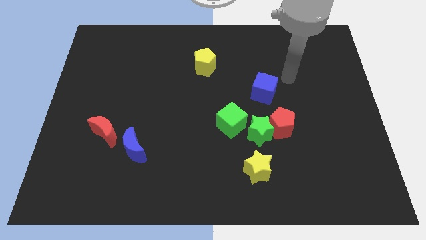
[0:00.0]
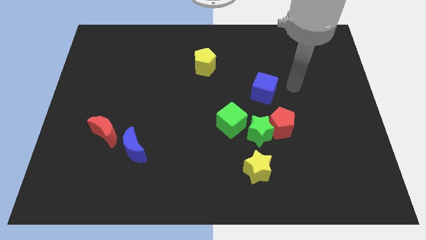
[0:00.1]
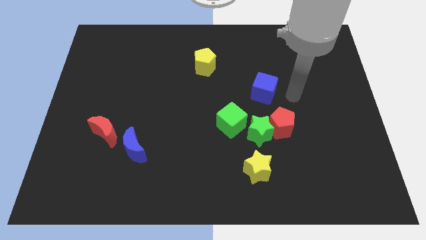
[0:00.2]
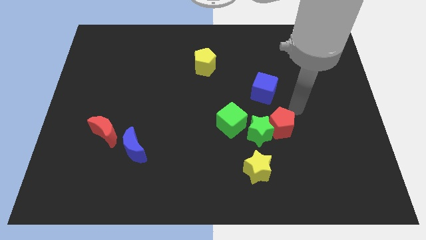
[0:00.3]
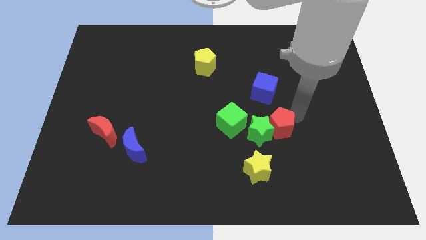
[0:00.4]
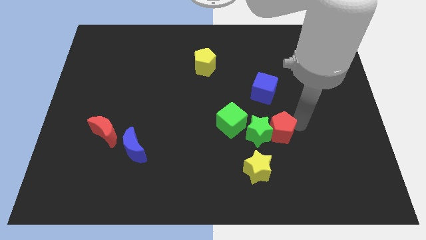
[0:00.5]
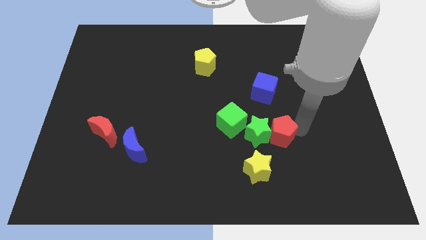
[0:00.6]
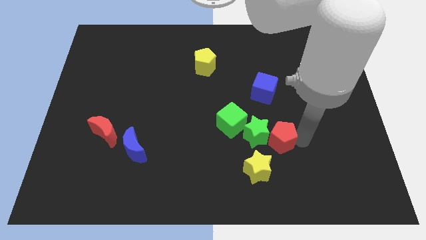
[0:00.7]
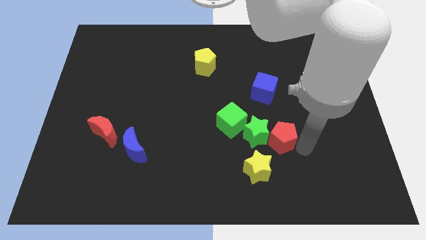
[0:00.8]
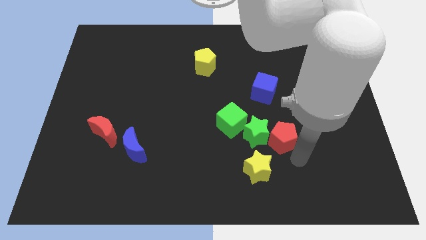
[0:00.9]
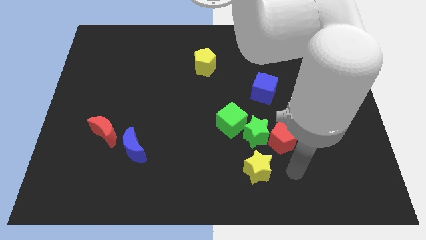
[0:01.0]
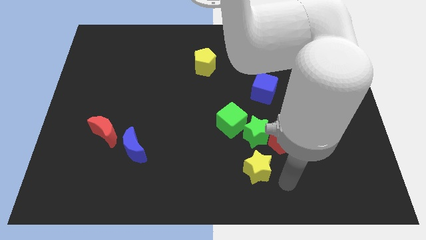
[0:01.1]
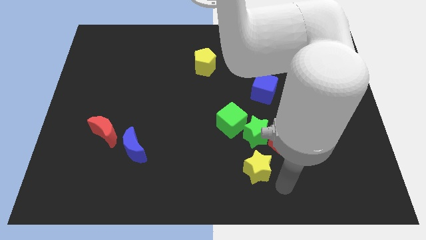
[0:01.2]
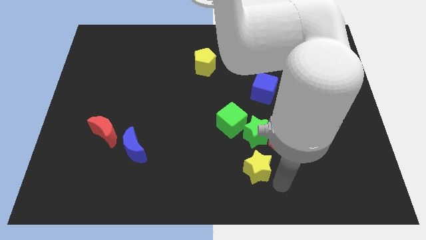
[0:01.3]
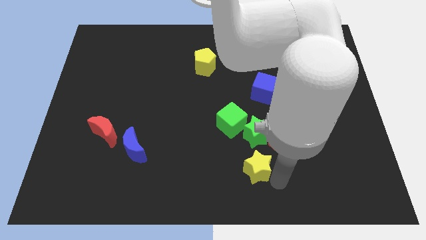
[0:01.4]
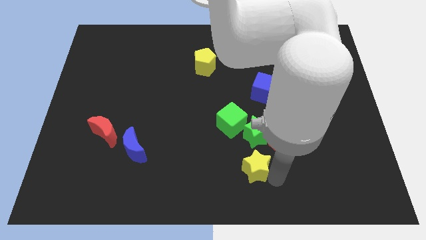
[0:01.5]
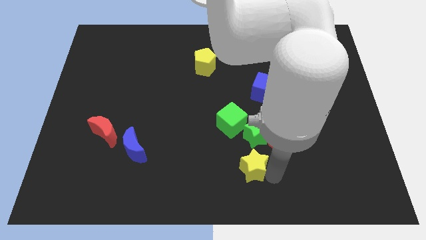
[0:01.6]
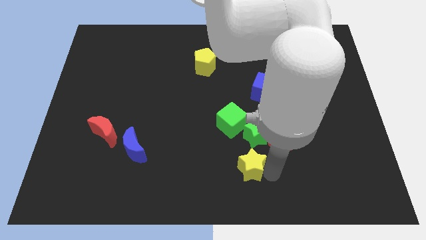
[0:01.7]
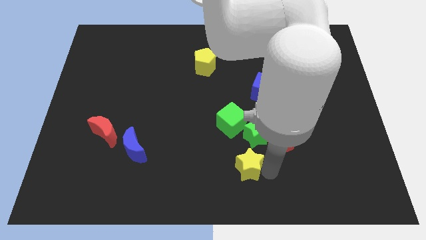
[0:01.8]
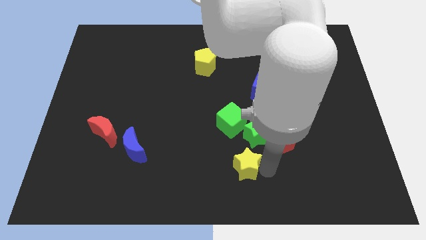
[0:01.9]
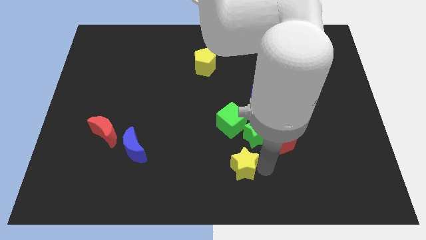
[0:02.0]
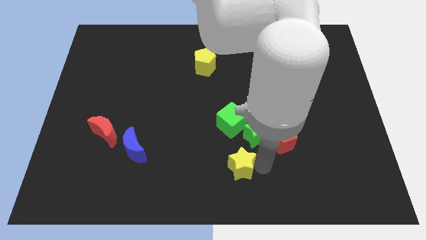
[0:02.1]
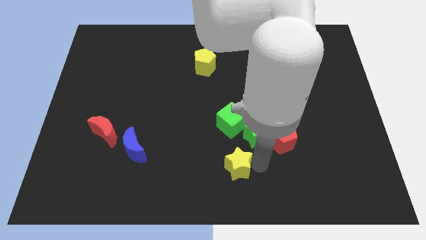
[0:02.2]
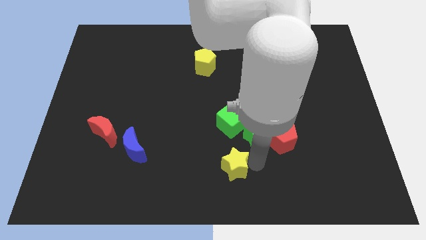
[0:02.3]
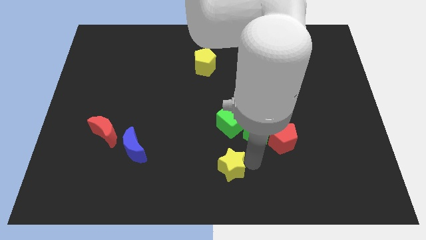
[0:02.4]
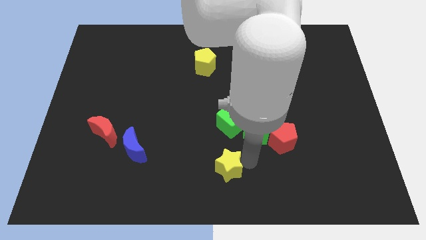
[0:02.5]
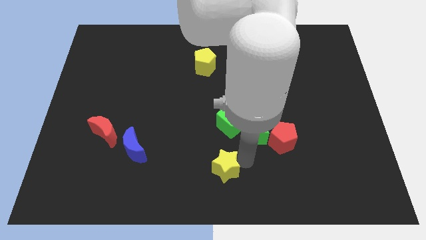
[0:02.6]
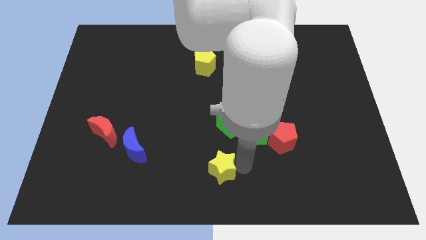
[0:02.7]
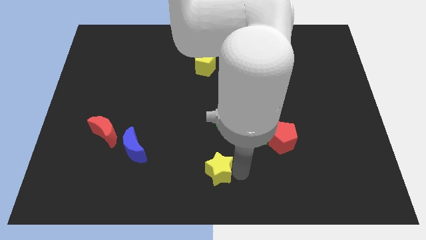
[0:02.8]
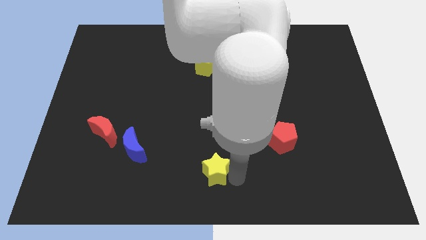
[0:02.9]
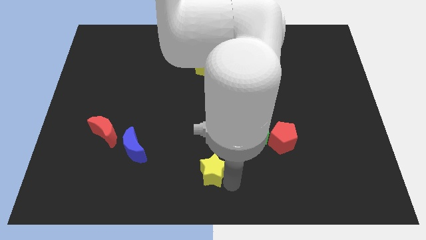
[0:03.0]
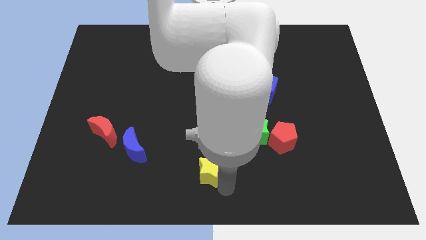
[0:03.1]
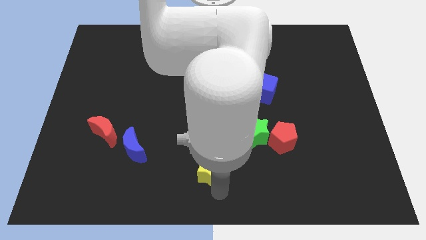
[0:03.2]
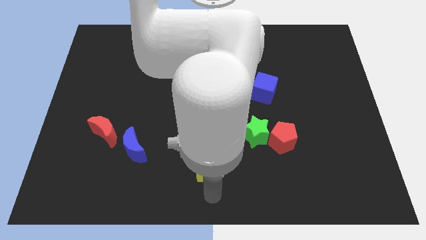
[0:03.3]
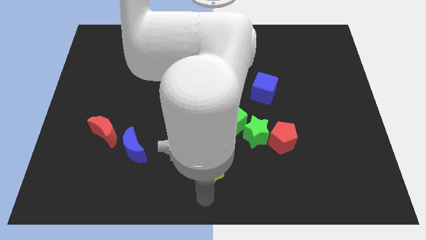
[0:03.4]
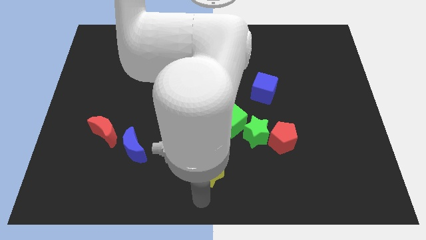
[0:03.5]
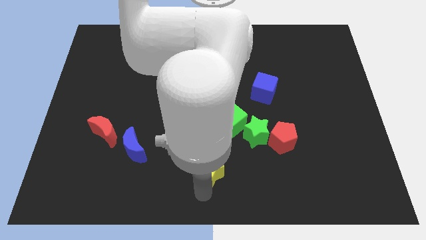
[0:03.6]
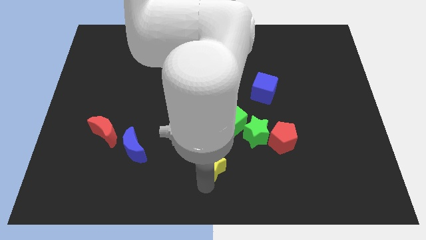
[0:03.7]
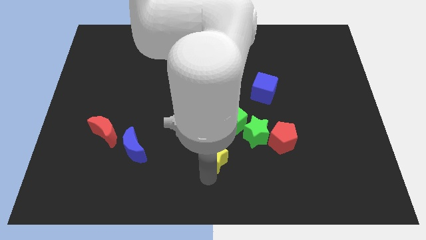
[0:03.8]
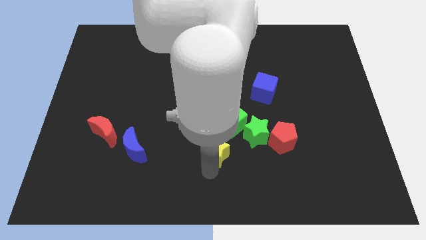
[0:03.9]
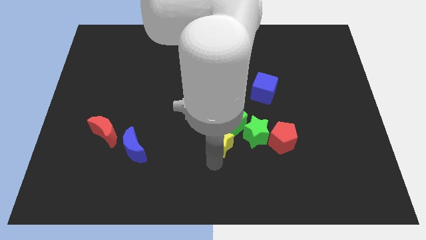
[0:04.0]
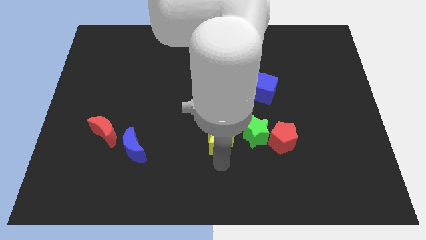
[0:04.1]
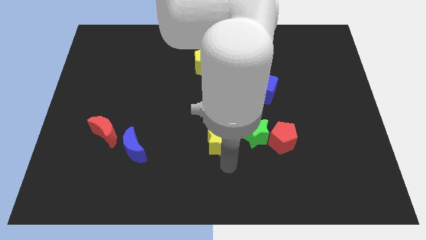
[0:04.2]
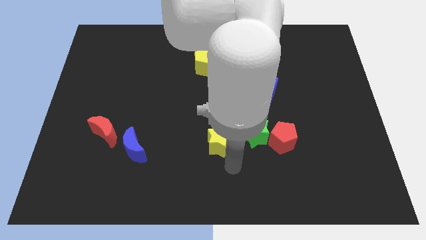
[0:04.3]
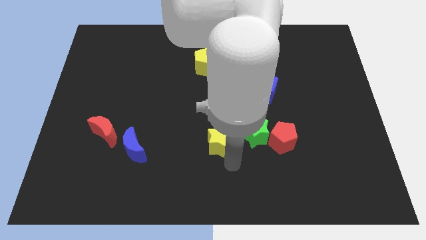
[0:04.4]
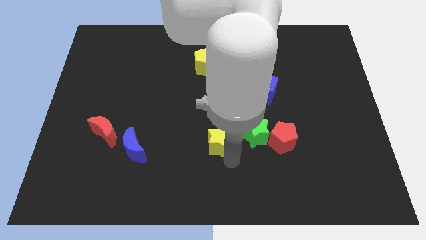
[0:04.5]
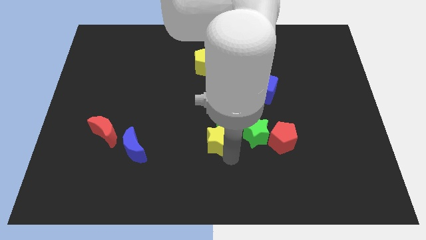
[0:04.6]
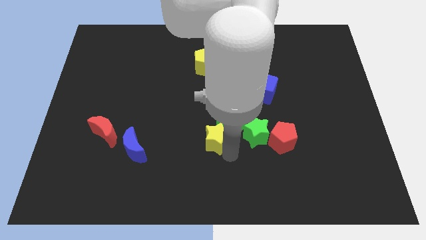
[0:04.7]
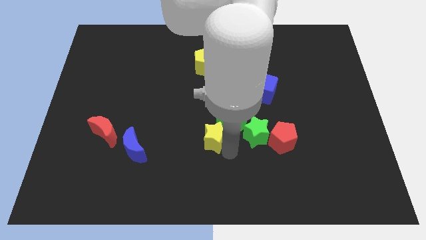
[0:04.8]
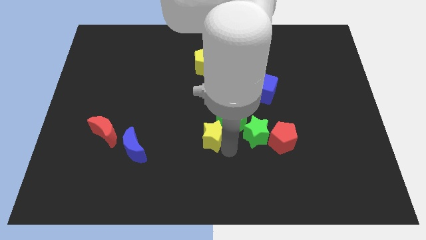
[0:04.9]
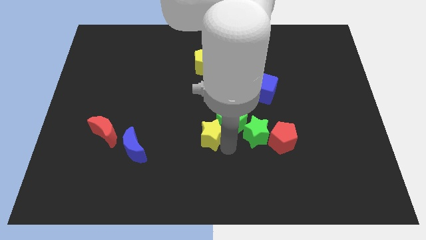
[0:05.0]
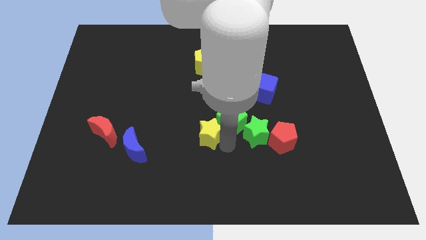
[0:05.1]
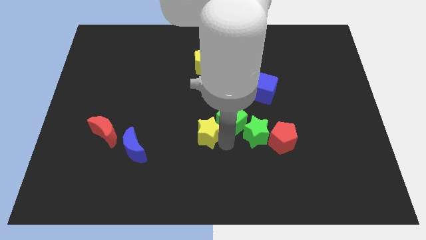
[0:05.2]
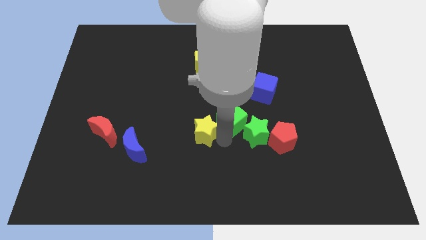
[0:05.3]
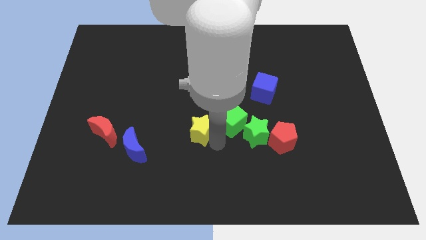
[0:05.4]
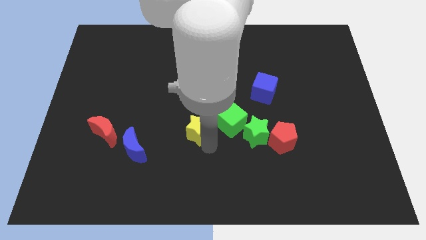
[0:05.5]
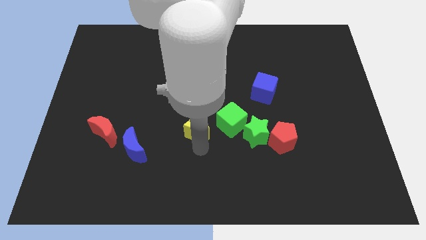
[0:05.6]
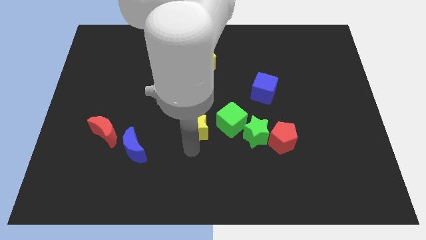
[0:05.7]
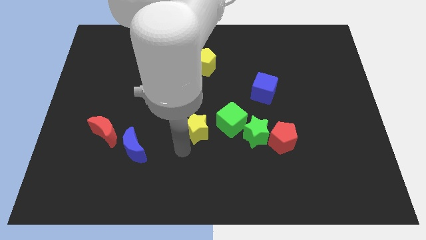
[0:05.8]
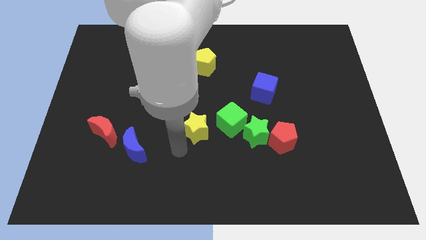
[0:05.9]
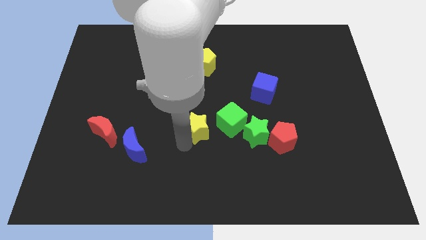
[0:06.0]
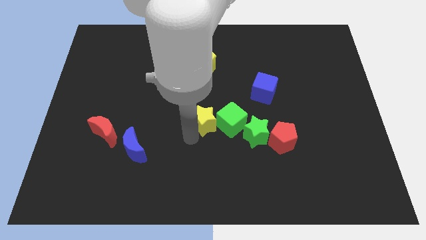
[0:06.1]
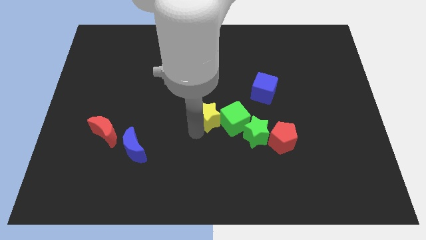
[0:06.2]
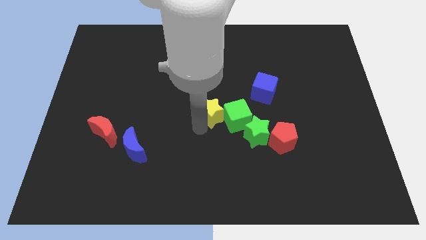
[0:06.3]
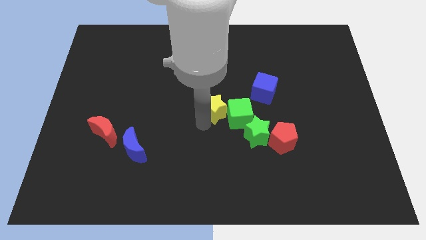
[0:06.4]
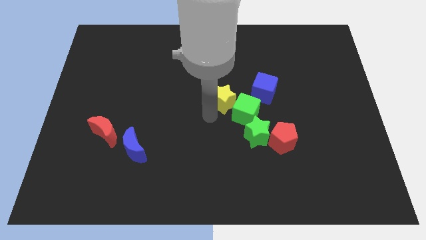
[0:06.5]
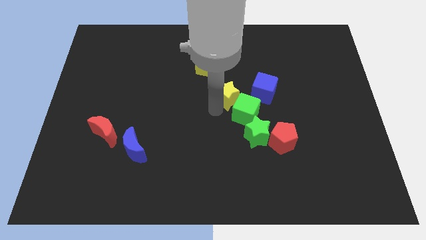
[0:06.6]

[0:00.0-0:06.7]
move the yellow star above the green cube

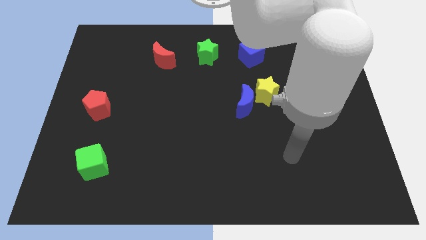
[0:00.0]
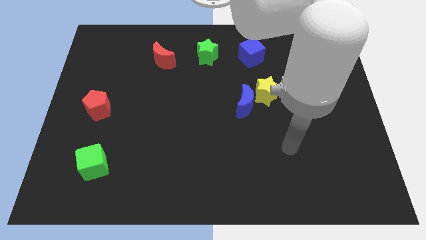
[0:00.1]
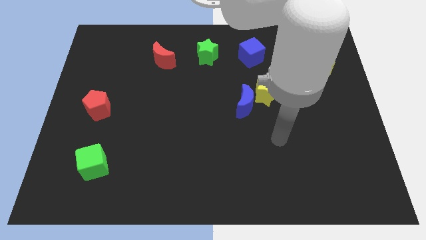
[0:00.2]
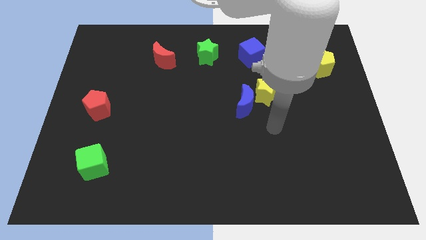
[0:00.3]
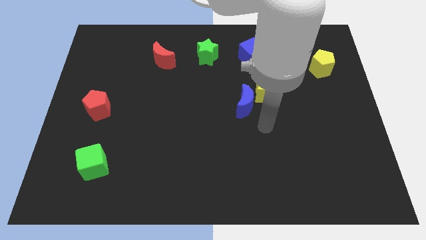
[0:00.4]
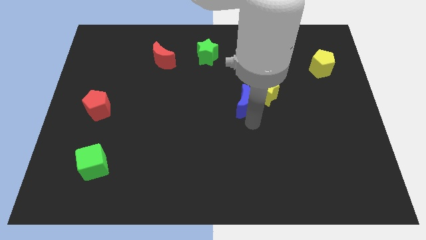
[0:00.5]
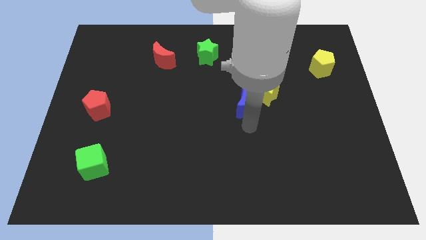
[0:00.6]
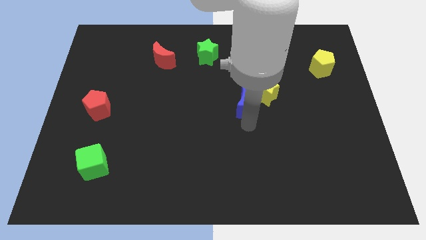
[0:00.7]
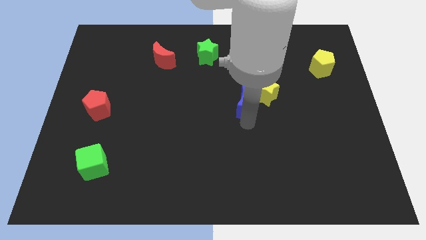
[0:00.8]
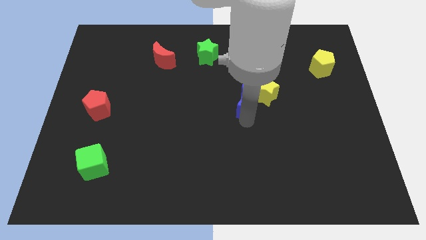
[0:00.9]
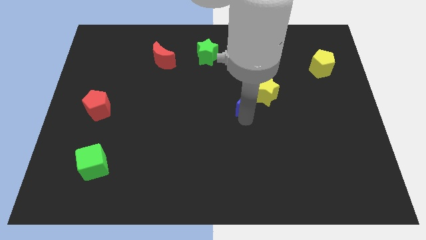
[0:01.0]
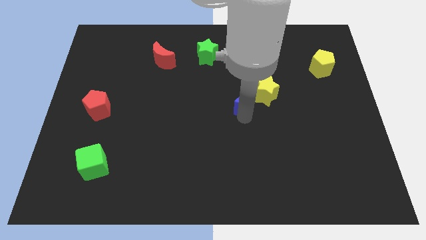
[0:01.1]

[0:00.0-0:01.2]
put the blue moon below the blue cube
